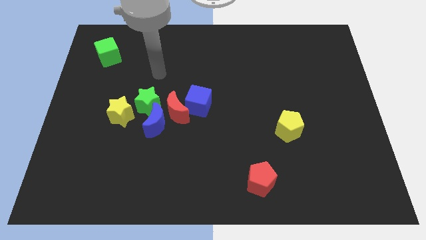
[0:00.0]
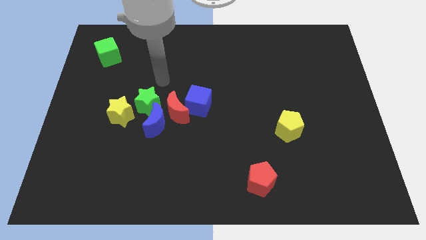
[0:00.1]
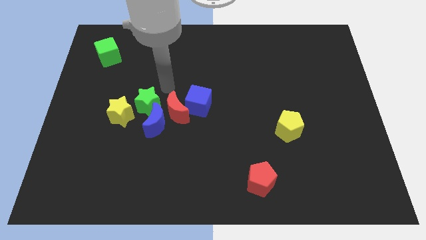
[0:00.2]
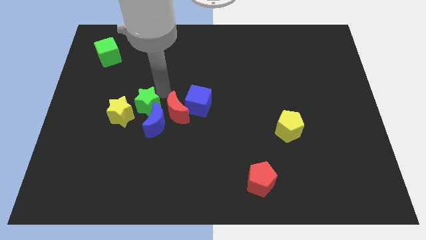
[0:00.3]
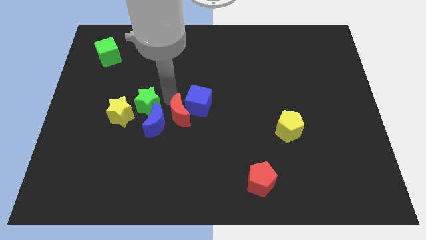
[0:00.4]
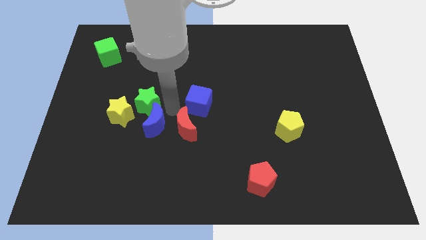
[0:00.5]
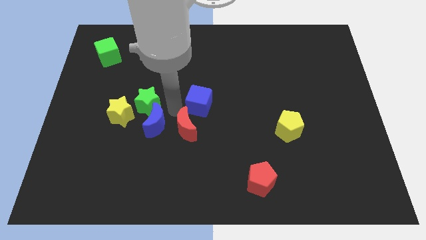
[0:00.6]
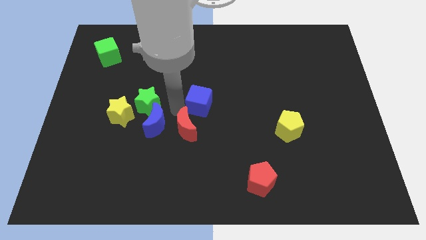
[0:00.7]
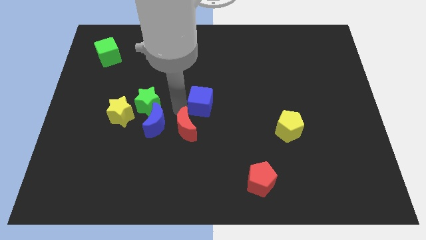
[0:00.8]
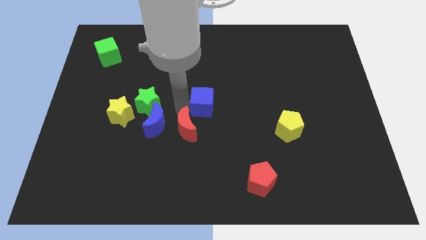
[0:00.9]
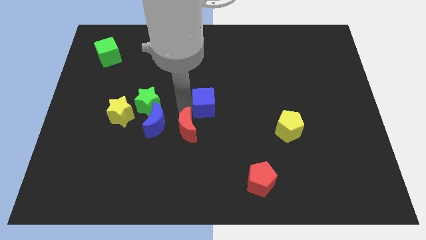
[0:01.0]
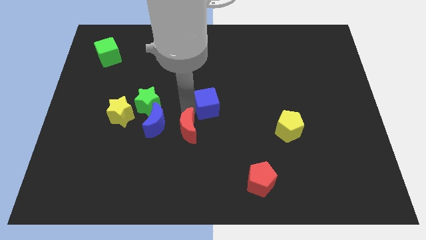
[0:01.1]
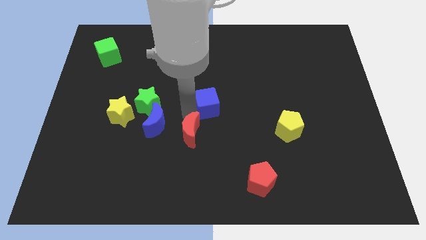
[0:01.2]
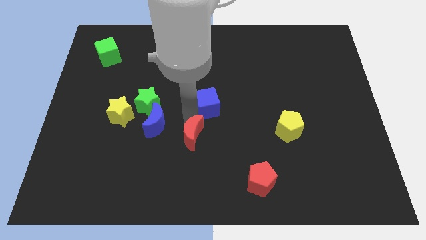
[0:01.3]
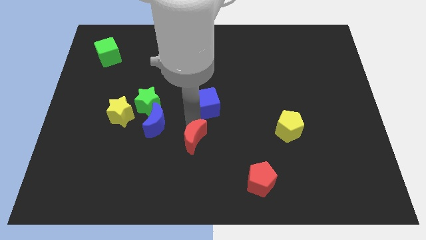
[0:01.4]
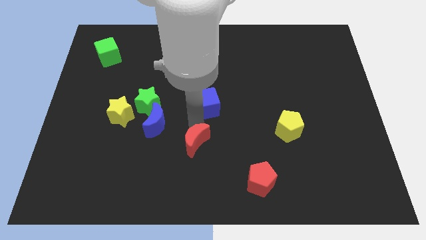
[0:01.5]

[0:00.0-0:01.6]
move the blue cube away from the red moon

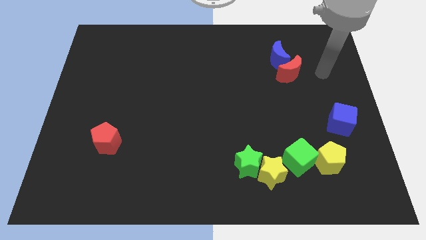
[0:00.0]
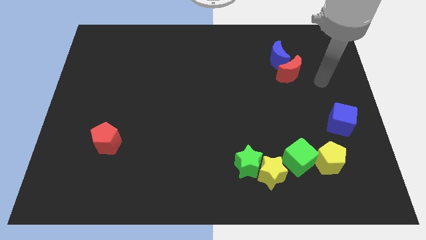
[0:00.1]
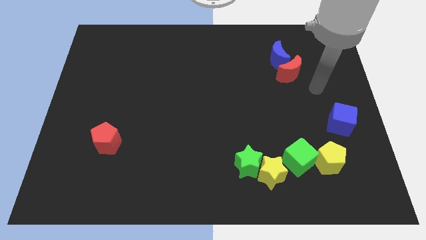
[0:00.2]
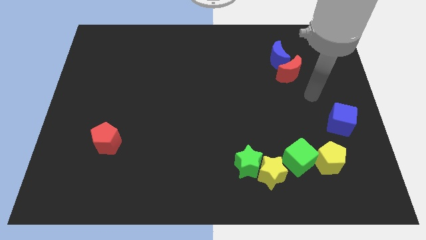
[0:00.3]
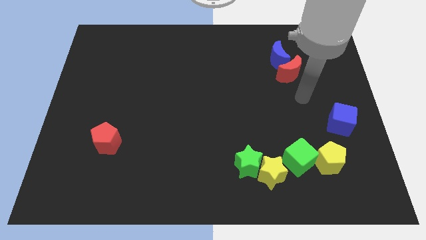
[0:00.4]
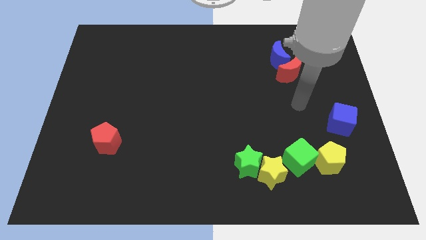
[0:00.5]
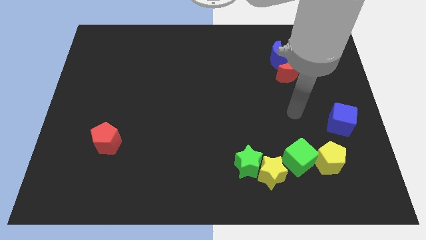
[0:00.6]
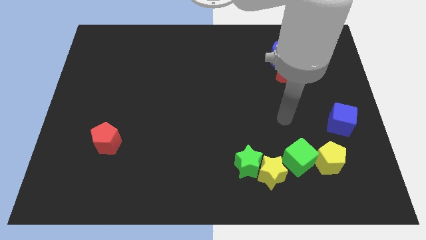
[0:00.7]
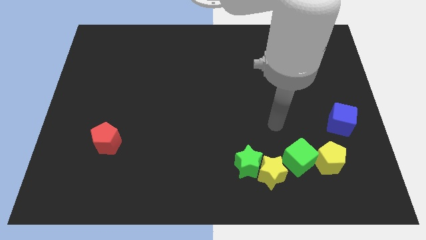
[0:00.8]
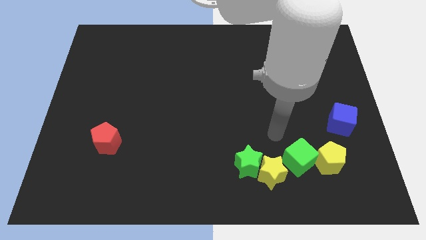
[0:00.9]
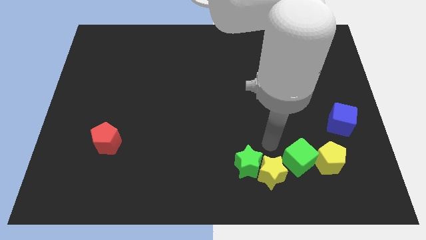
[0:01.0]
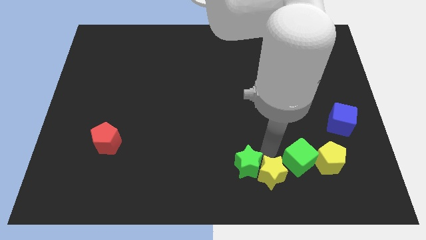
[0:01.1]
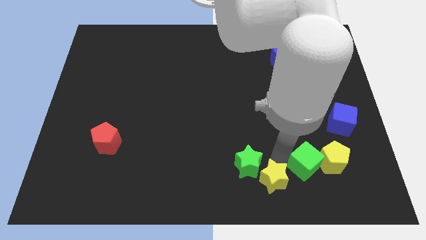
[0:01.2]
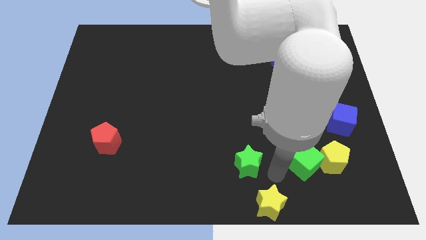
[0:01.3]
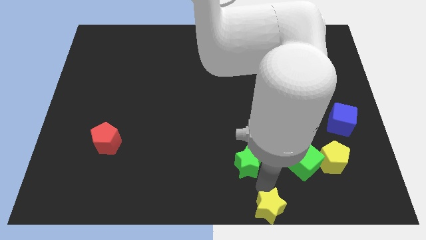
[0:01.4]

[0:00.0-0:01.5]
separate the green star from the yellow star

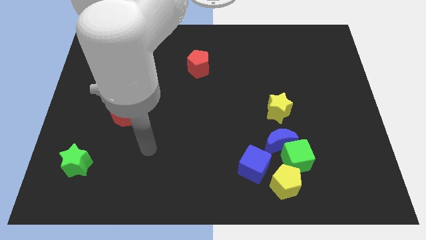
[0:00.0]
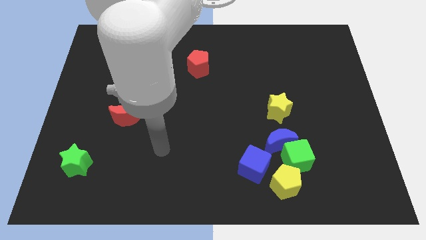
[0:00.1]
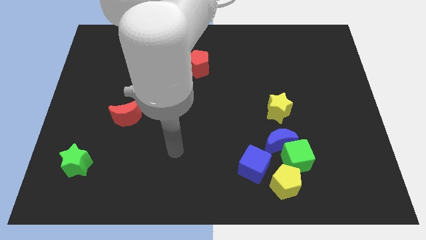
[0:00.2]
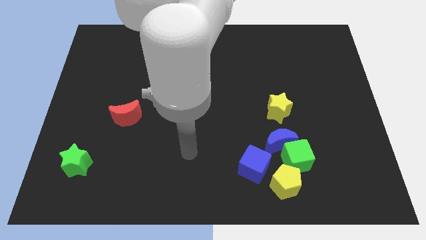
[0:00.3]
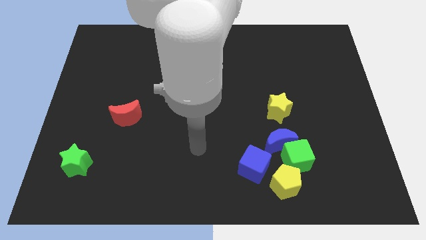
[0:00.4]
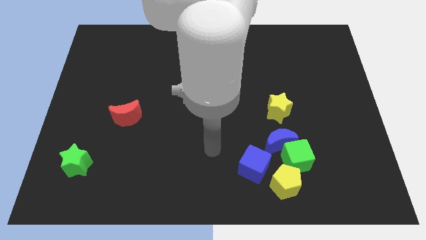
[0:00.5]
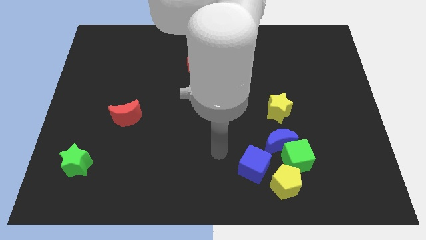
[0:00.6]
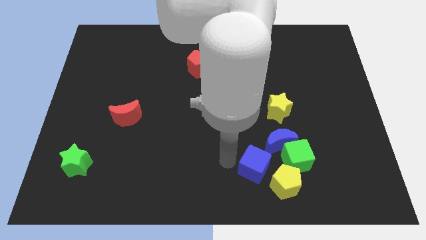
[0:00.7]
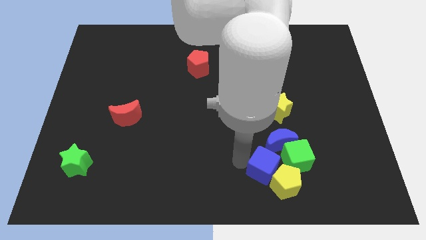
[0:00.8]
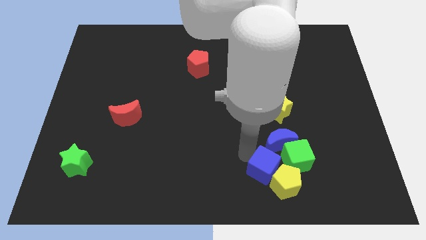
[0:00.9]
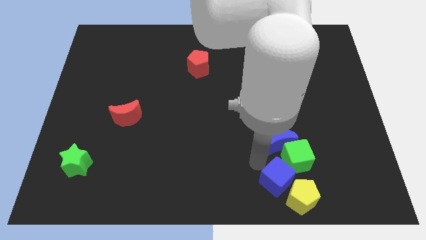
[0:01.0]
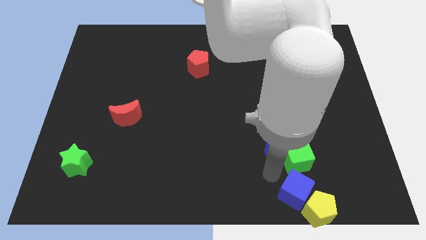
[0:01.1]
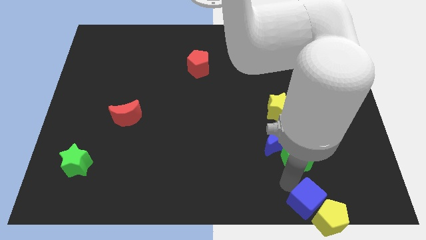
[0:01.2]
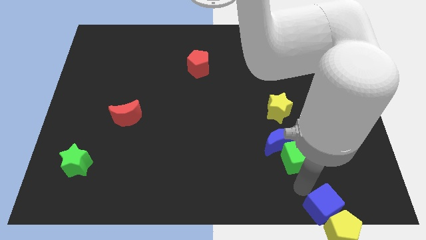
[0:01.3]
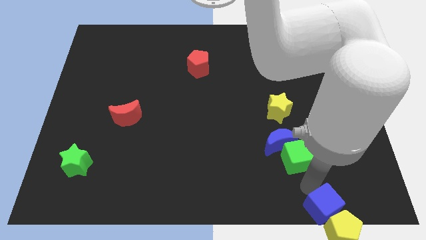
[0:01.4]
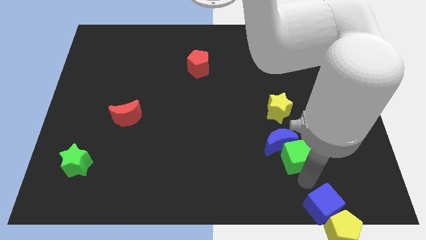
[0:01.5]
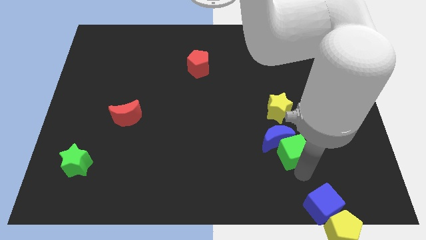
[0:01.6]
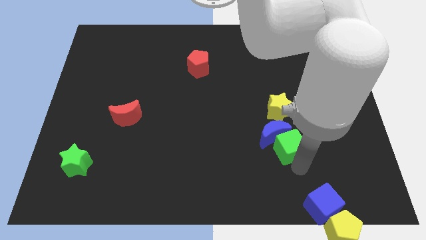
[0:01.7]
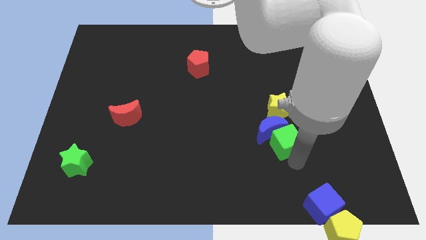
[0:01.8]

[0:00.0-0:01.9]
separate the green cube from the blue moon, yellow pentagon, and blue cube

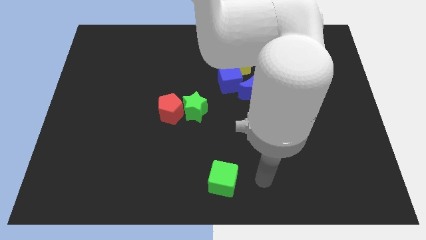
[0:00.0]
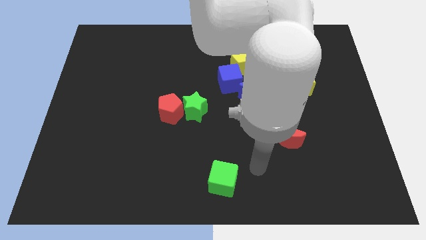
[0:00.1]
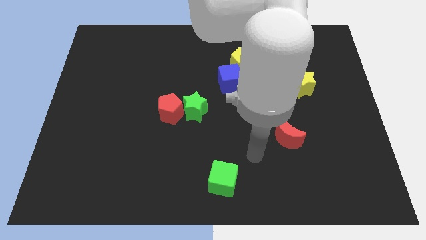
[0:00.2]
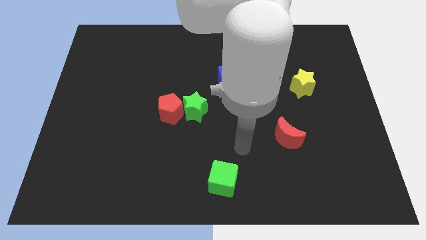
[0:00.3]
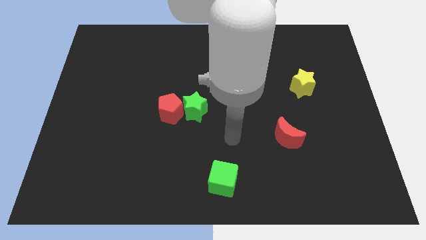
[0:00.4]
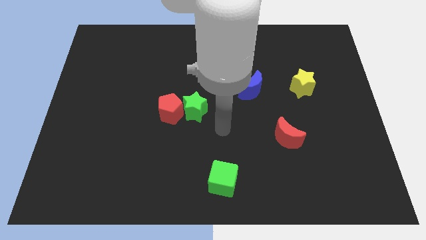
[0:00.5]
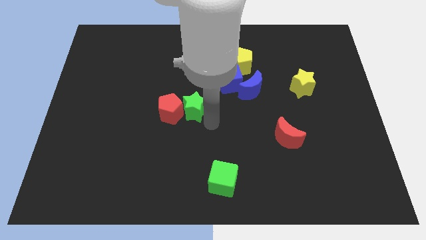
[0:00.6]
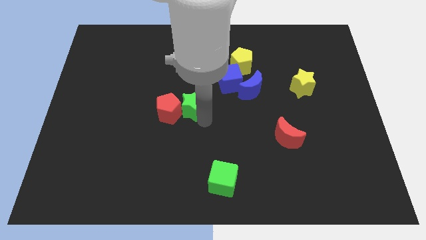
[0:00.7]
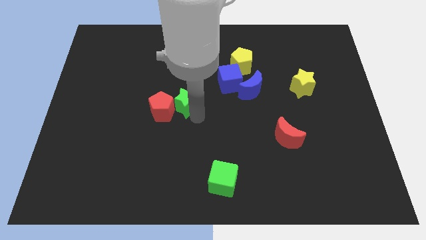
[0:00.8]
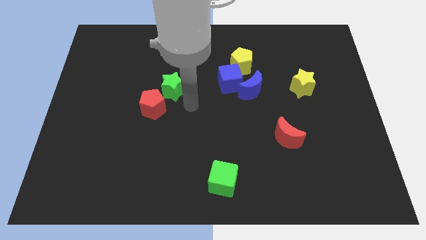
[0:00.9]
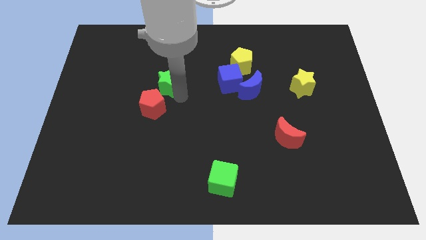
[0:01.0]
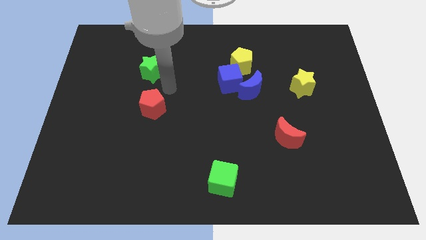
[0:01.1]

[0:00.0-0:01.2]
move the red pentagon away from the green star

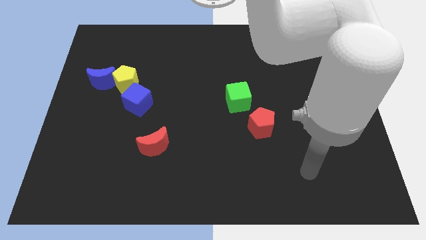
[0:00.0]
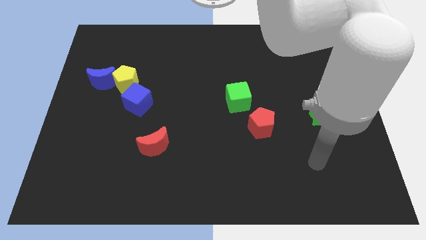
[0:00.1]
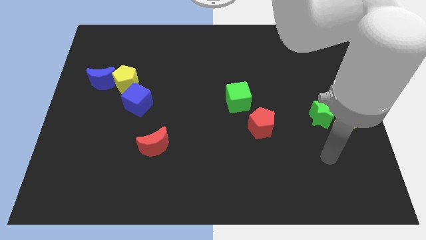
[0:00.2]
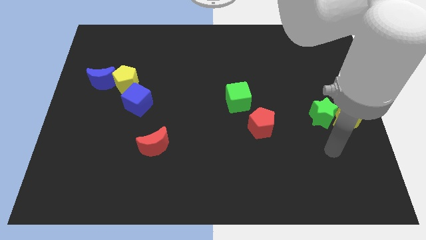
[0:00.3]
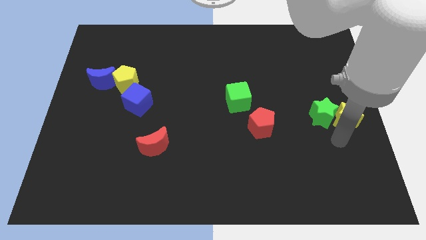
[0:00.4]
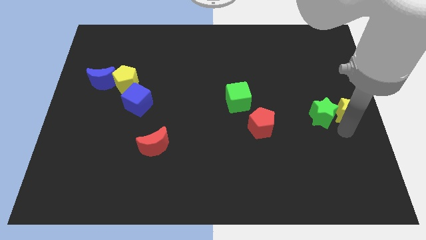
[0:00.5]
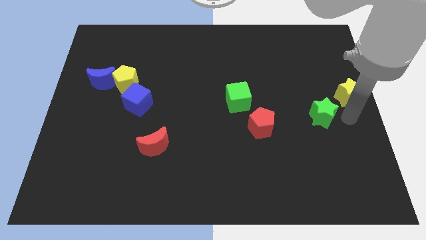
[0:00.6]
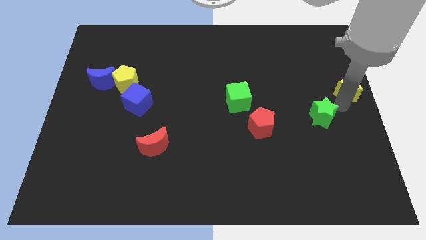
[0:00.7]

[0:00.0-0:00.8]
pull the green star apart from the yellow star

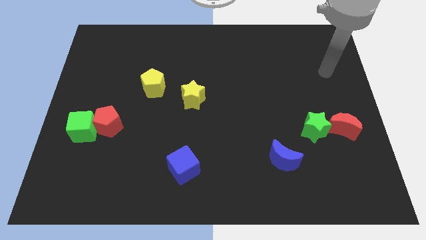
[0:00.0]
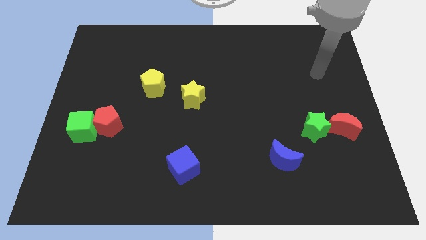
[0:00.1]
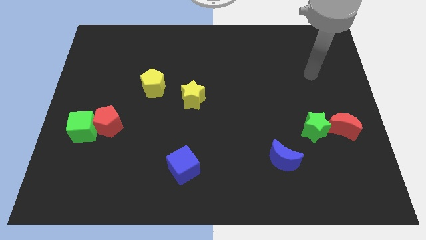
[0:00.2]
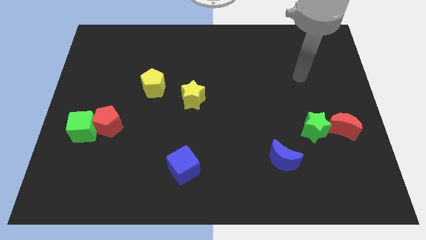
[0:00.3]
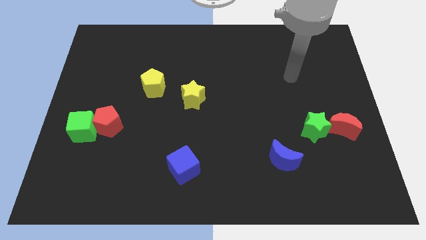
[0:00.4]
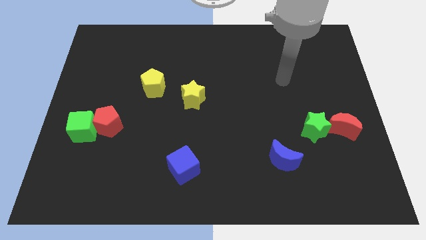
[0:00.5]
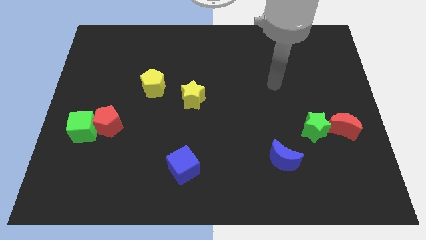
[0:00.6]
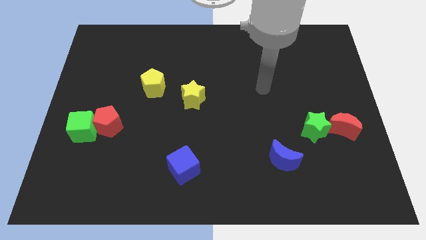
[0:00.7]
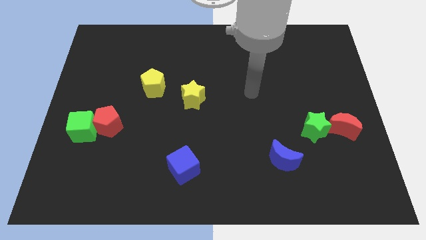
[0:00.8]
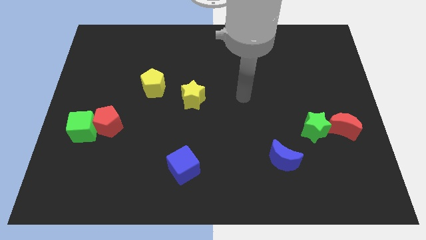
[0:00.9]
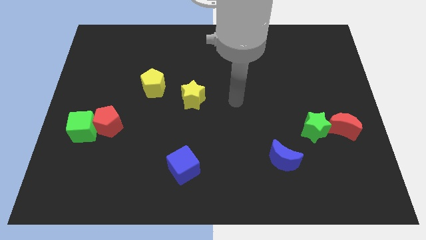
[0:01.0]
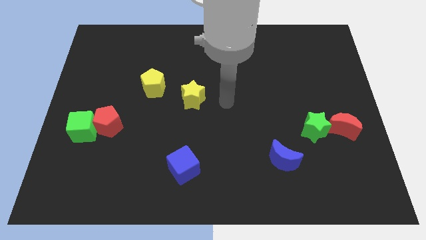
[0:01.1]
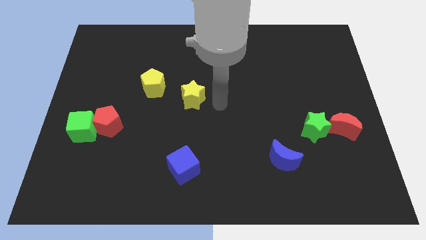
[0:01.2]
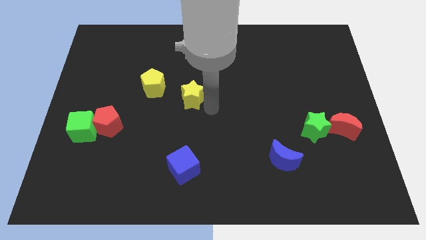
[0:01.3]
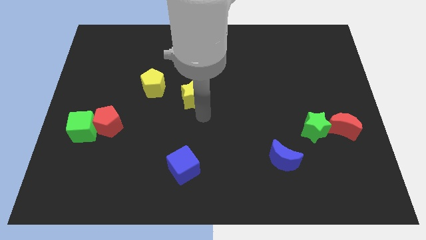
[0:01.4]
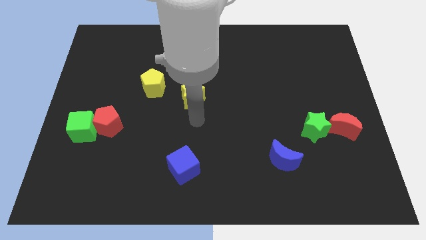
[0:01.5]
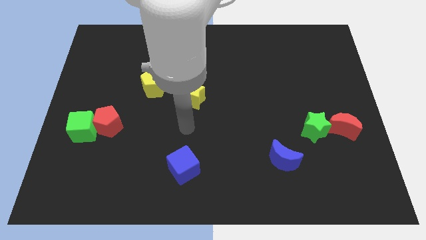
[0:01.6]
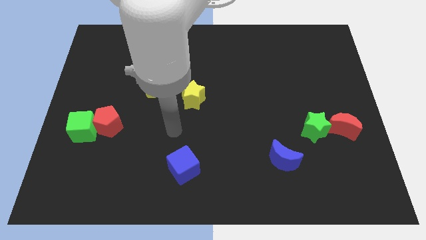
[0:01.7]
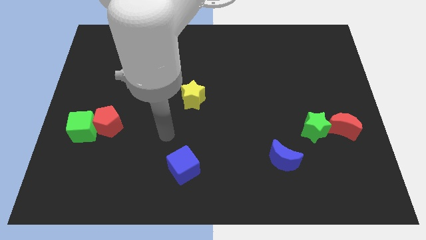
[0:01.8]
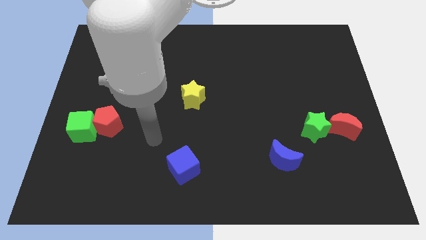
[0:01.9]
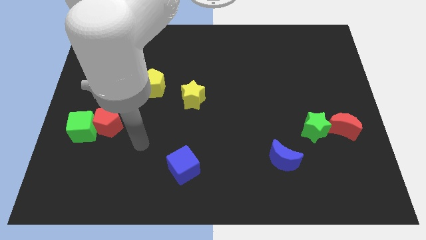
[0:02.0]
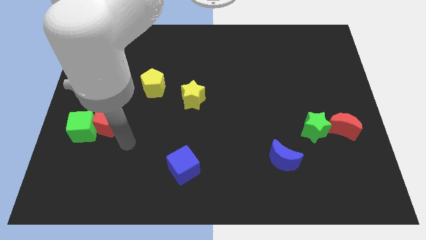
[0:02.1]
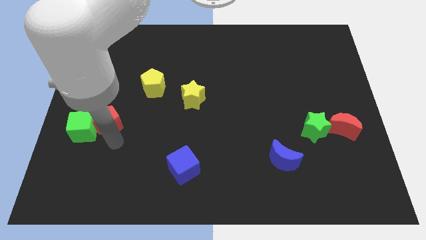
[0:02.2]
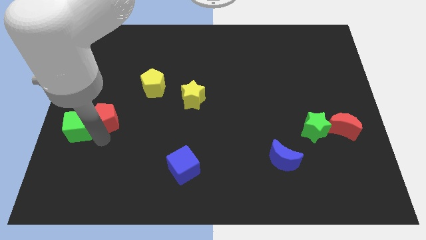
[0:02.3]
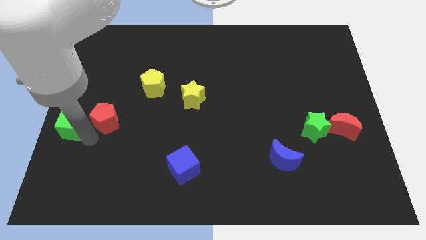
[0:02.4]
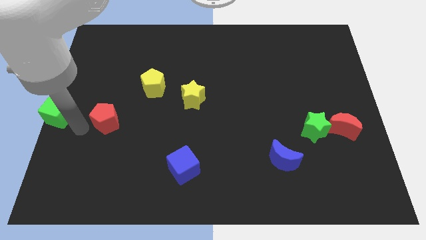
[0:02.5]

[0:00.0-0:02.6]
pull the red pentagon apart from the green cube
